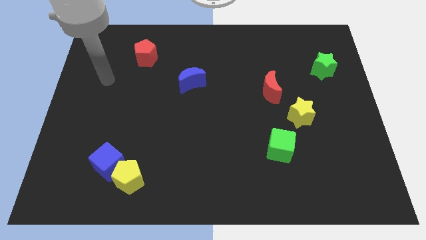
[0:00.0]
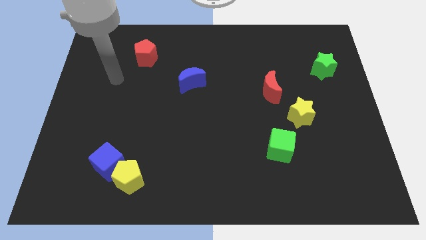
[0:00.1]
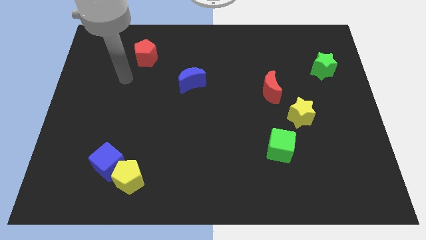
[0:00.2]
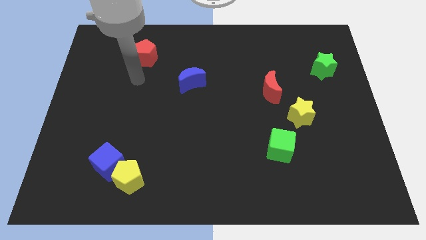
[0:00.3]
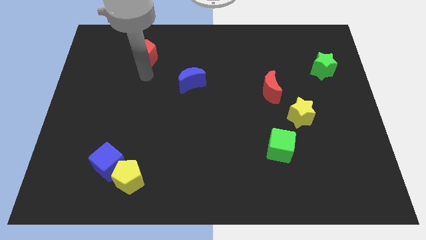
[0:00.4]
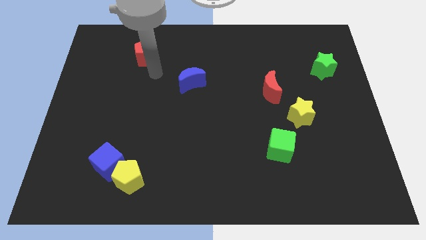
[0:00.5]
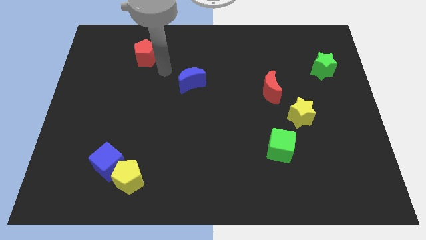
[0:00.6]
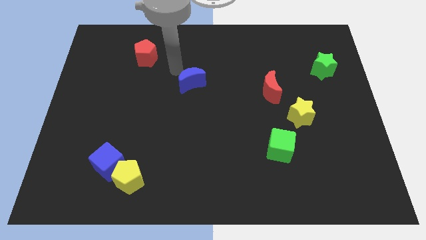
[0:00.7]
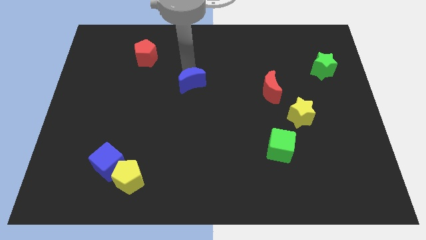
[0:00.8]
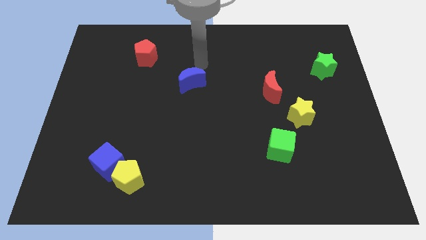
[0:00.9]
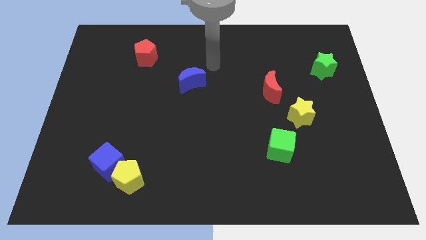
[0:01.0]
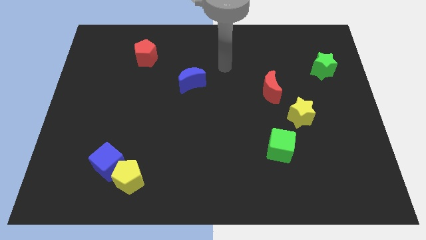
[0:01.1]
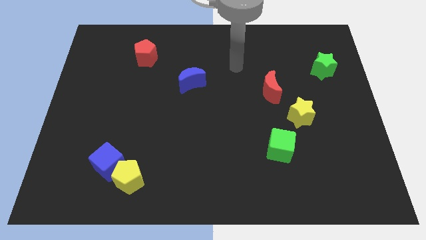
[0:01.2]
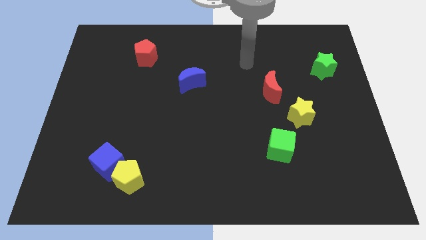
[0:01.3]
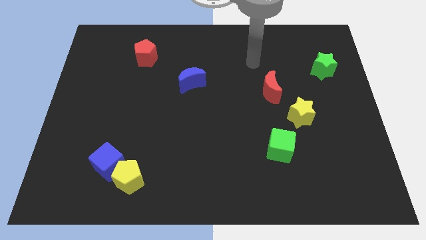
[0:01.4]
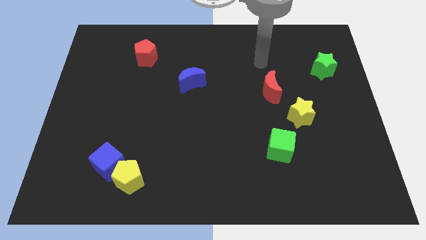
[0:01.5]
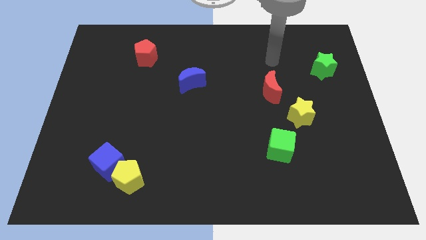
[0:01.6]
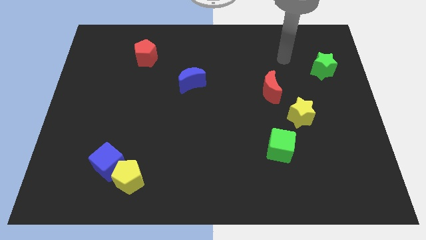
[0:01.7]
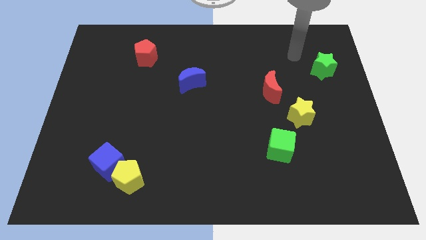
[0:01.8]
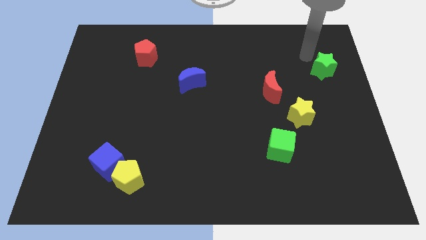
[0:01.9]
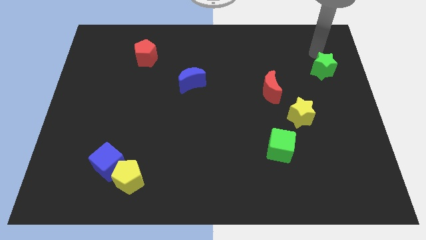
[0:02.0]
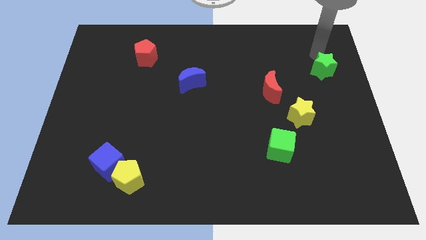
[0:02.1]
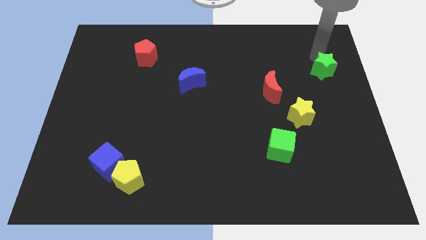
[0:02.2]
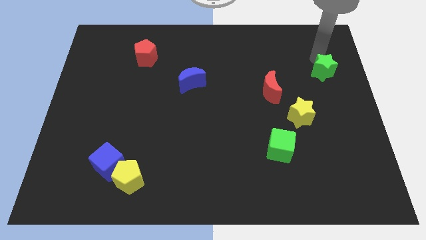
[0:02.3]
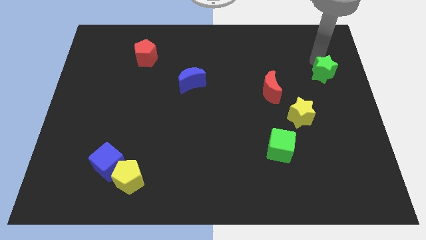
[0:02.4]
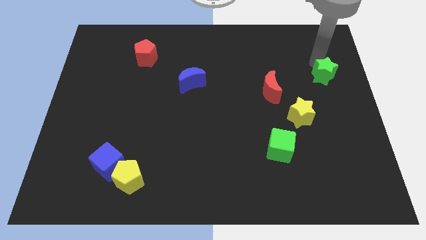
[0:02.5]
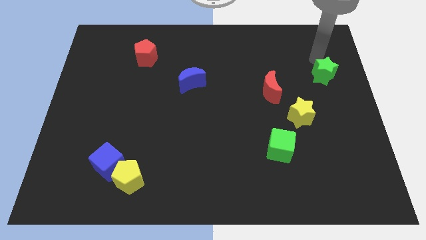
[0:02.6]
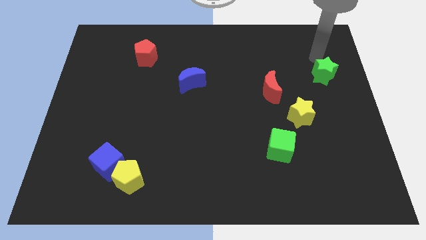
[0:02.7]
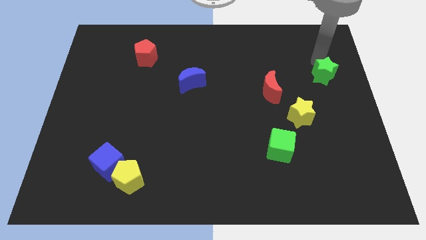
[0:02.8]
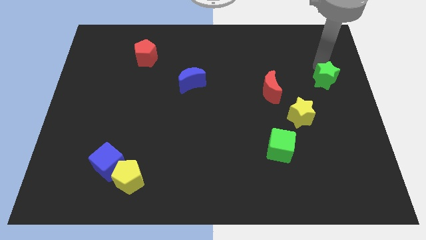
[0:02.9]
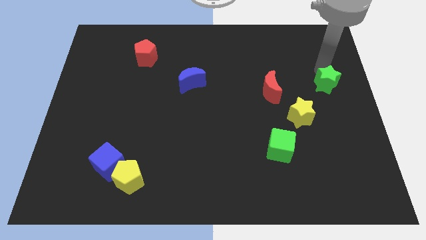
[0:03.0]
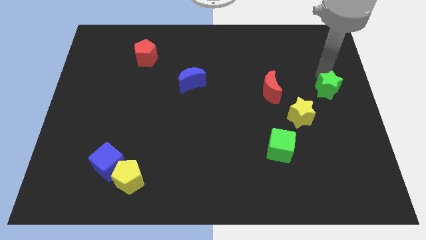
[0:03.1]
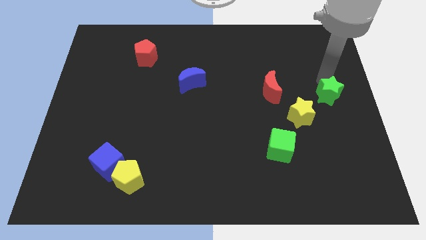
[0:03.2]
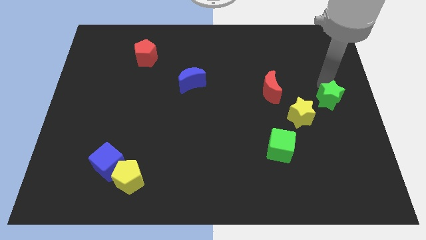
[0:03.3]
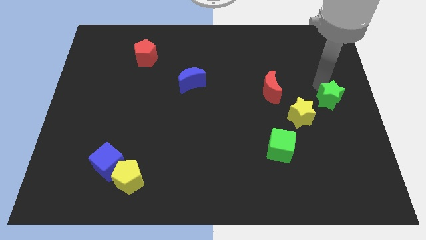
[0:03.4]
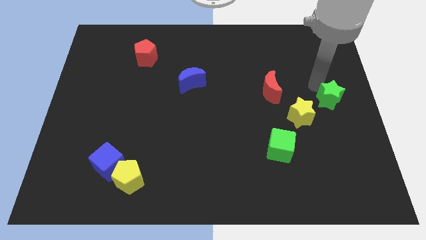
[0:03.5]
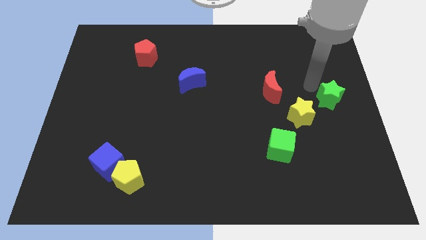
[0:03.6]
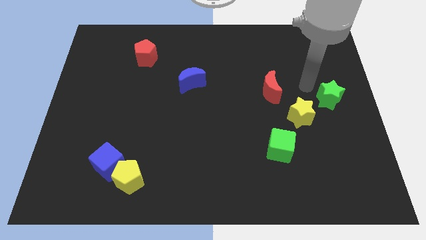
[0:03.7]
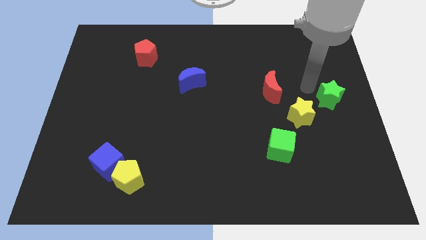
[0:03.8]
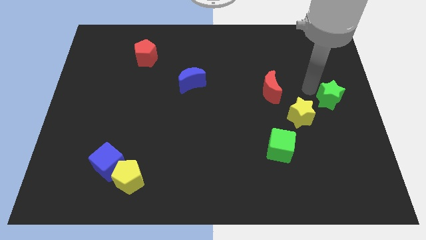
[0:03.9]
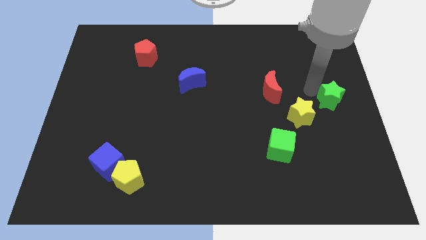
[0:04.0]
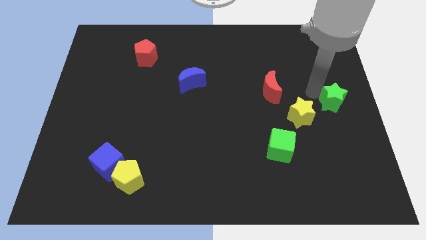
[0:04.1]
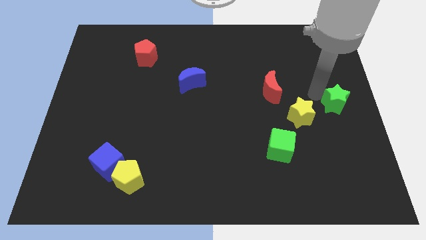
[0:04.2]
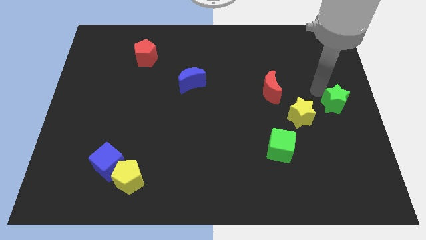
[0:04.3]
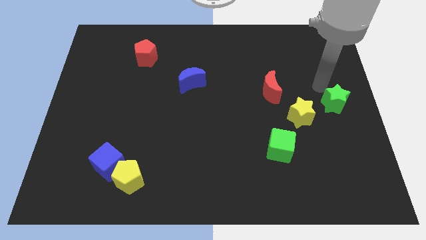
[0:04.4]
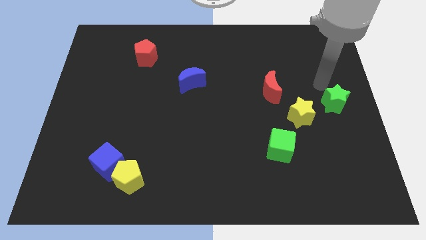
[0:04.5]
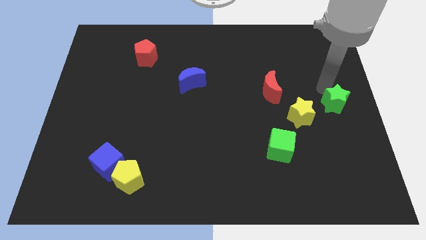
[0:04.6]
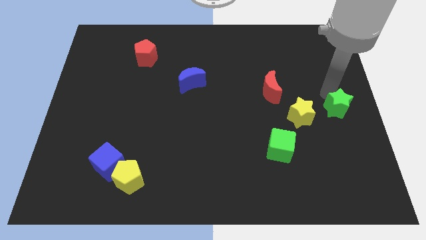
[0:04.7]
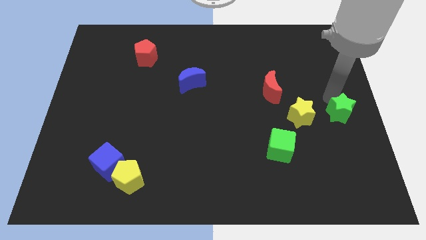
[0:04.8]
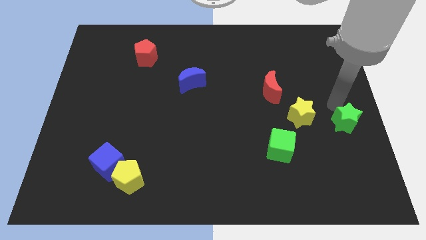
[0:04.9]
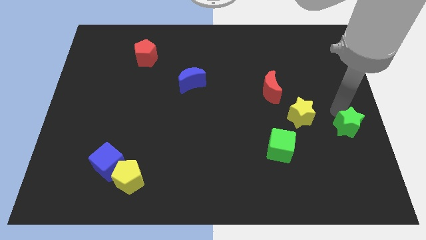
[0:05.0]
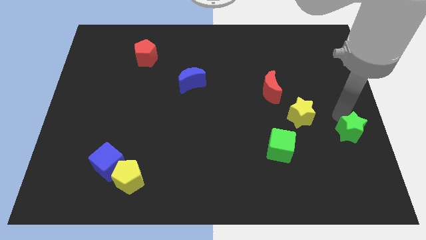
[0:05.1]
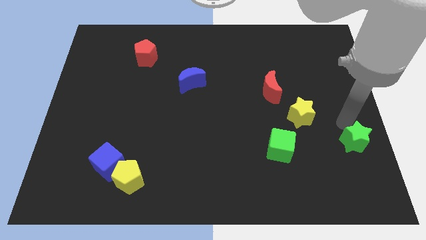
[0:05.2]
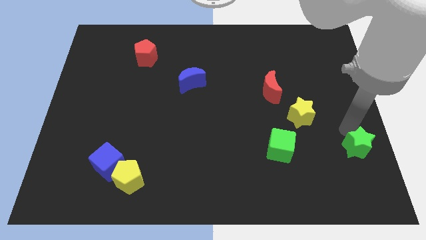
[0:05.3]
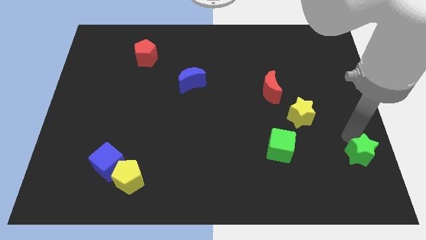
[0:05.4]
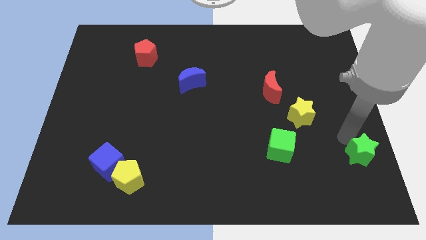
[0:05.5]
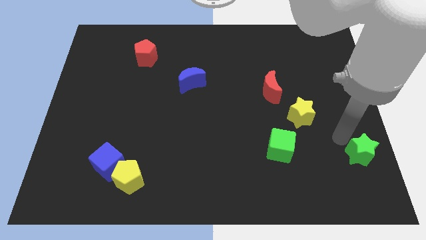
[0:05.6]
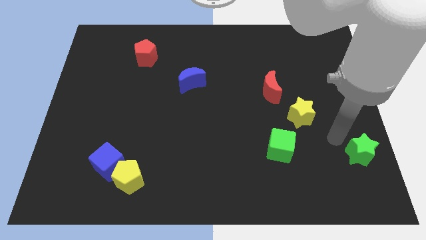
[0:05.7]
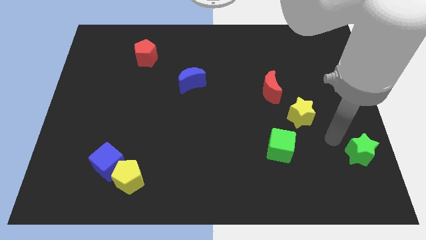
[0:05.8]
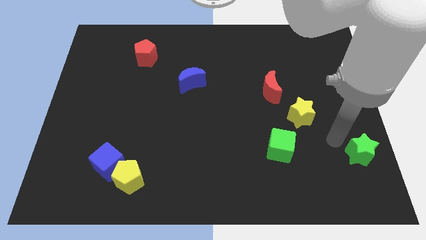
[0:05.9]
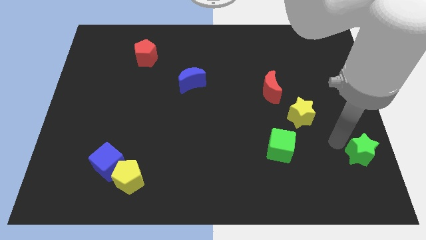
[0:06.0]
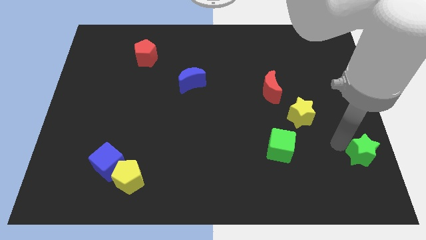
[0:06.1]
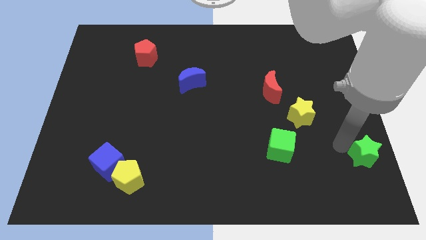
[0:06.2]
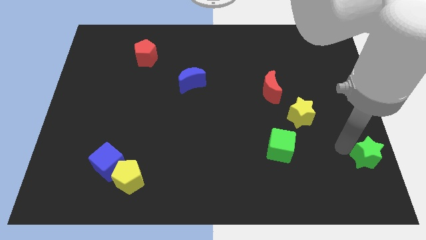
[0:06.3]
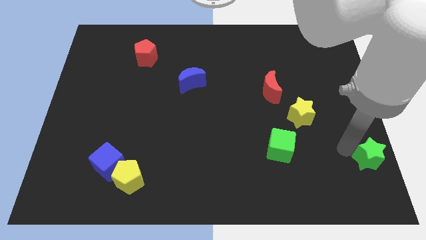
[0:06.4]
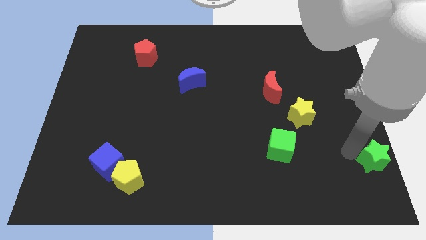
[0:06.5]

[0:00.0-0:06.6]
push the green star to the bottom right of the board

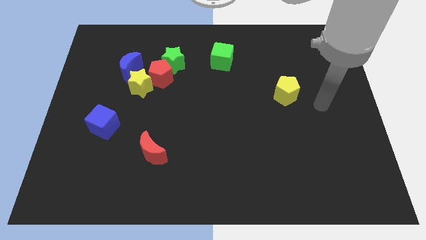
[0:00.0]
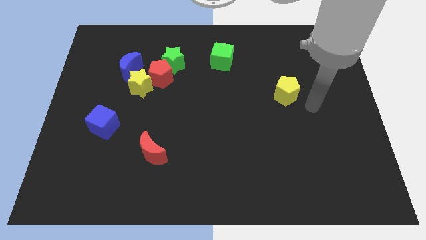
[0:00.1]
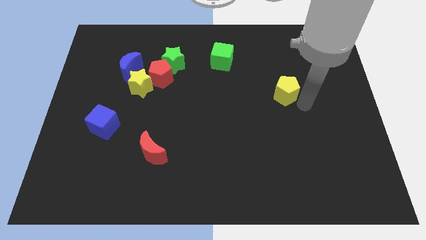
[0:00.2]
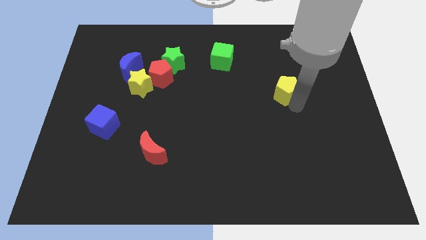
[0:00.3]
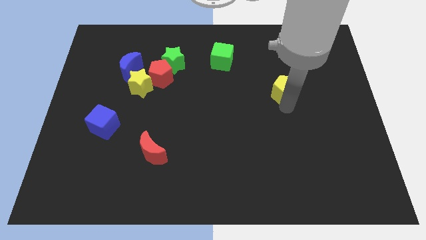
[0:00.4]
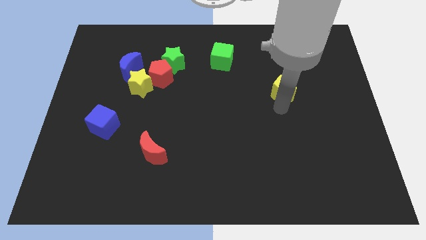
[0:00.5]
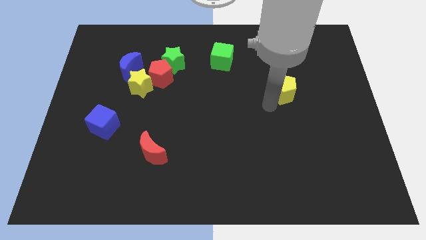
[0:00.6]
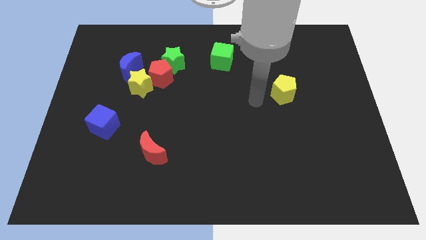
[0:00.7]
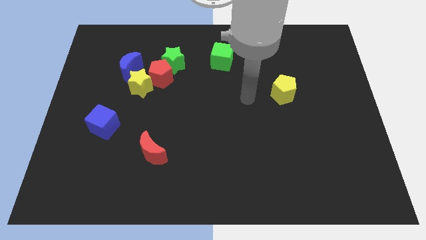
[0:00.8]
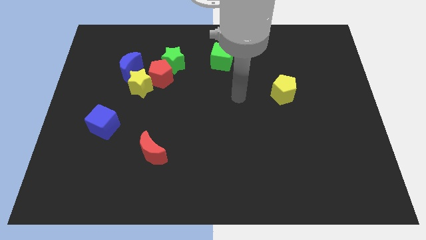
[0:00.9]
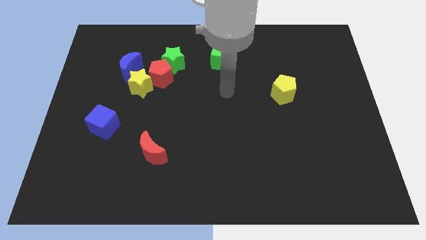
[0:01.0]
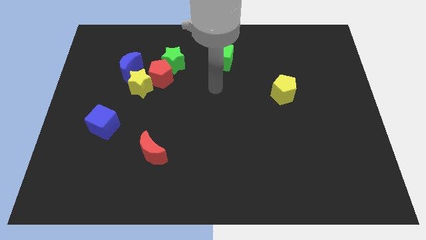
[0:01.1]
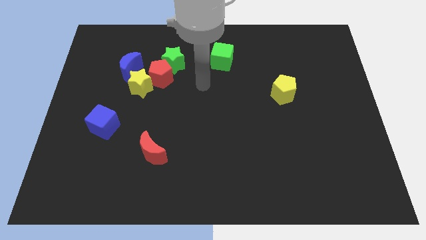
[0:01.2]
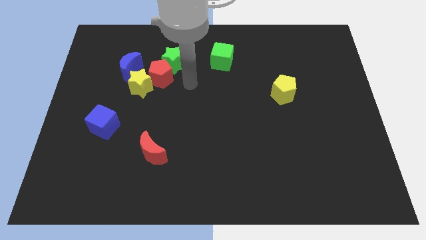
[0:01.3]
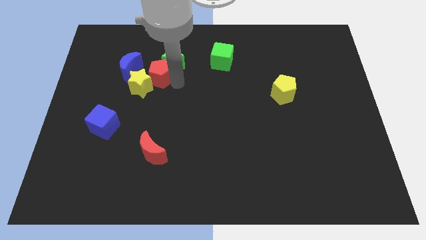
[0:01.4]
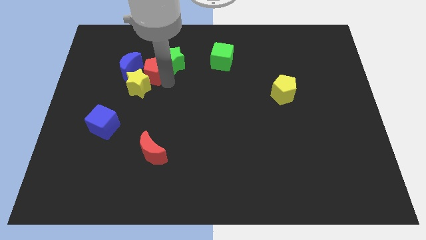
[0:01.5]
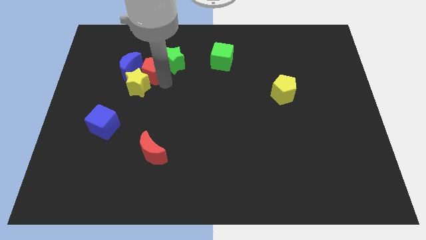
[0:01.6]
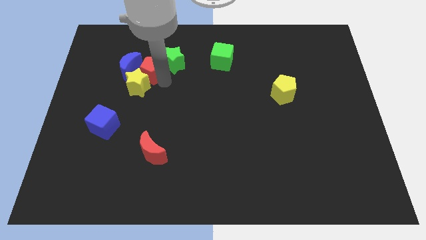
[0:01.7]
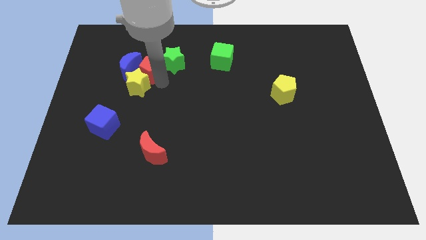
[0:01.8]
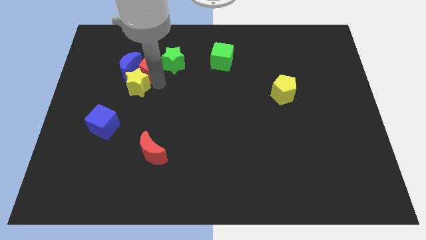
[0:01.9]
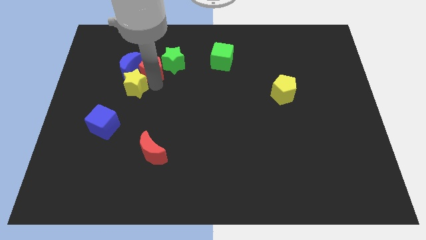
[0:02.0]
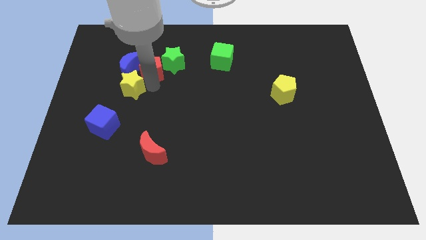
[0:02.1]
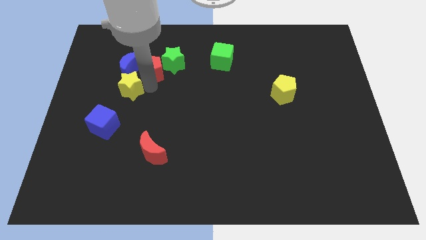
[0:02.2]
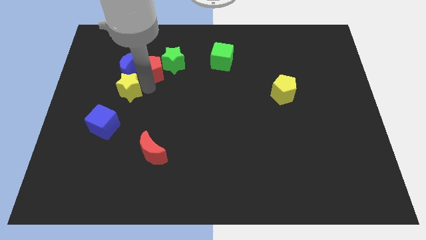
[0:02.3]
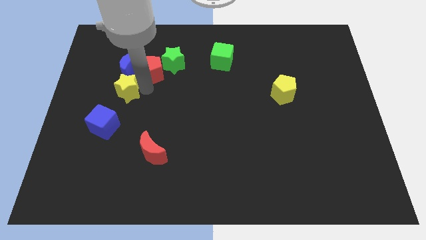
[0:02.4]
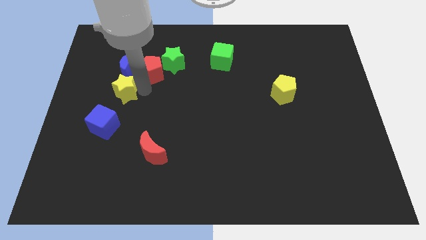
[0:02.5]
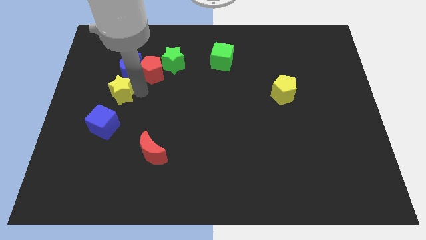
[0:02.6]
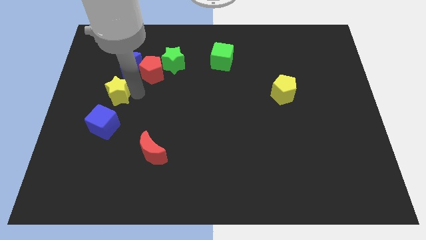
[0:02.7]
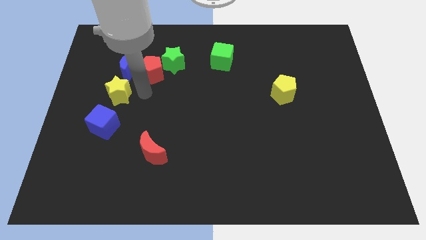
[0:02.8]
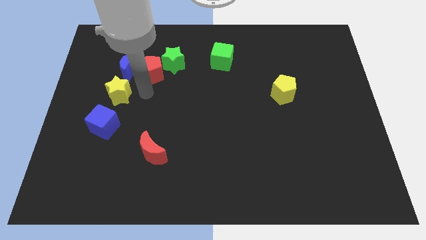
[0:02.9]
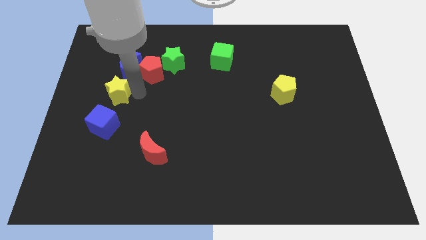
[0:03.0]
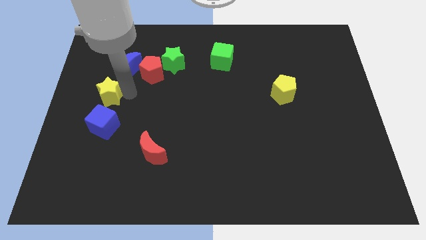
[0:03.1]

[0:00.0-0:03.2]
move the yellow star to the left side
